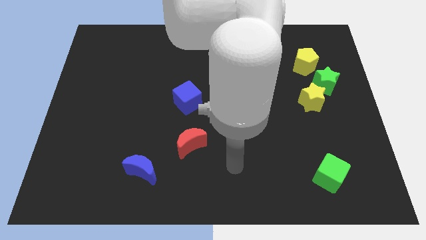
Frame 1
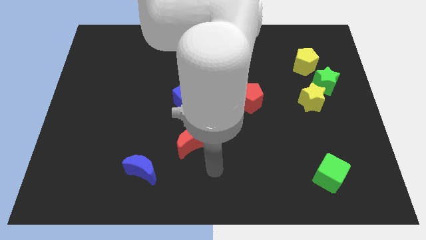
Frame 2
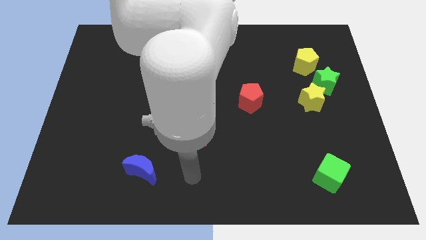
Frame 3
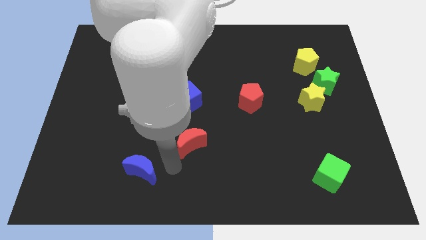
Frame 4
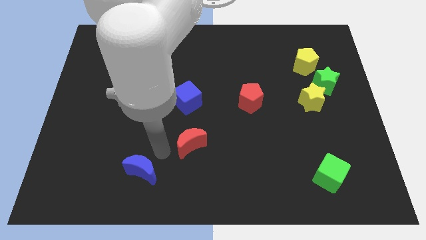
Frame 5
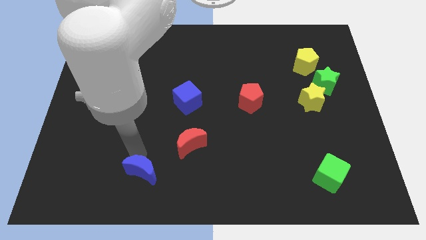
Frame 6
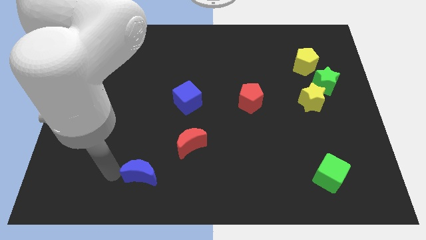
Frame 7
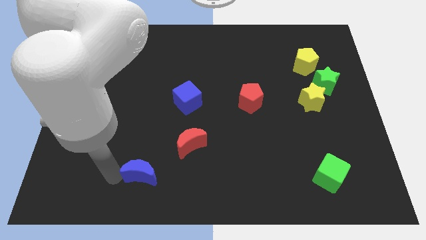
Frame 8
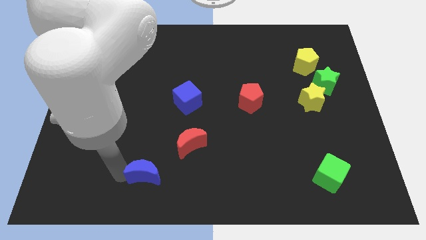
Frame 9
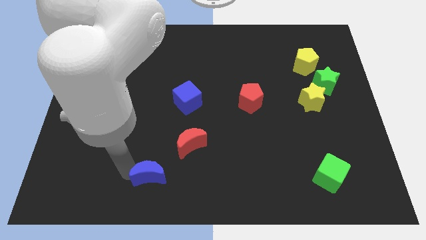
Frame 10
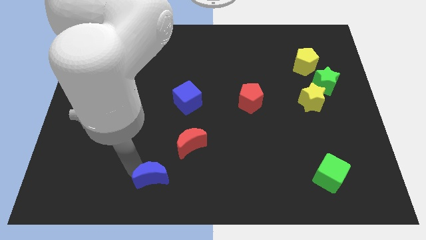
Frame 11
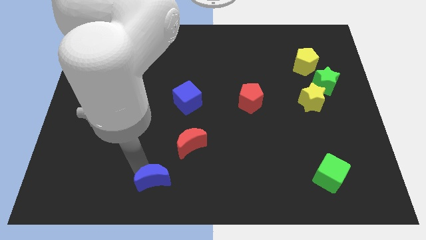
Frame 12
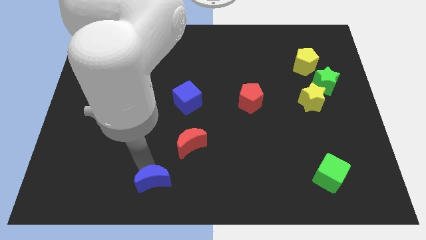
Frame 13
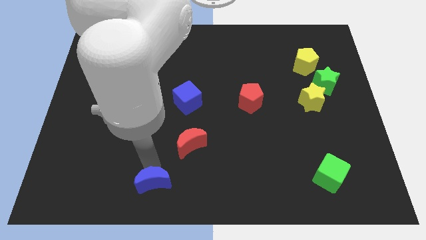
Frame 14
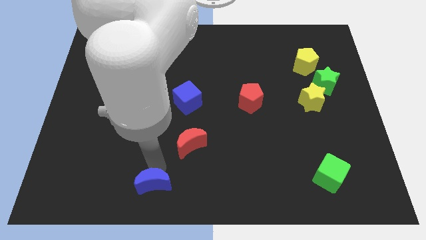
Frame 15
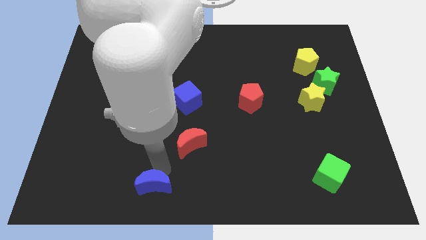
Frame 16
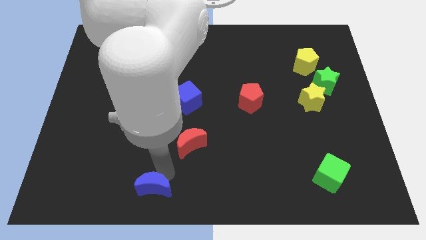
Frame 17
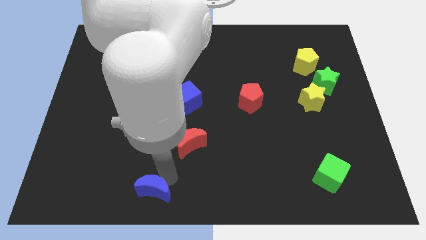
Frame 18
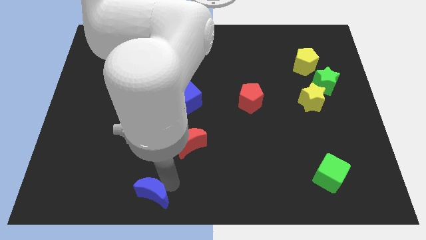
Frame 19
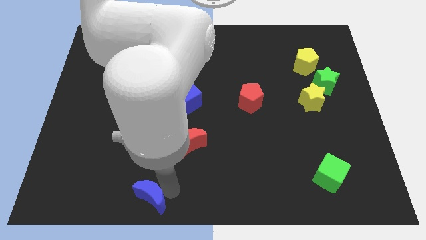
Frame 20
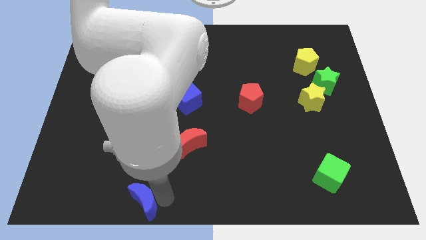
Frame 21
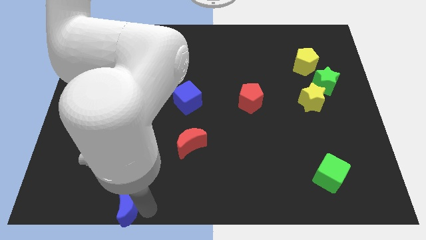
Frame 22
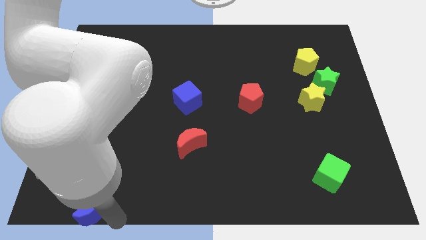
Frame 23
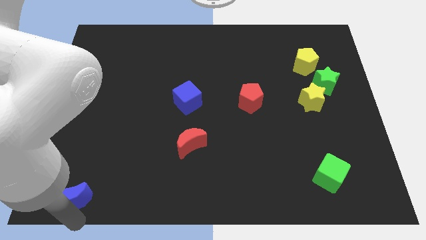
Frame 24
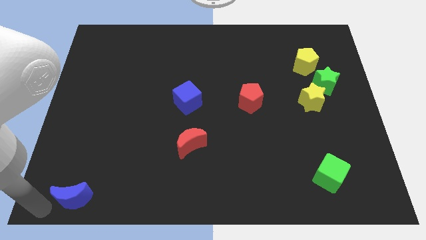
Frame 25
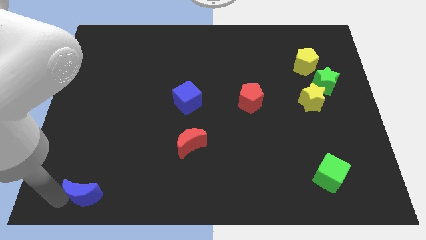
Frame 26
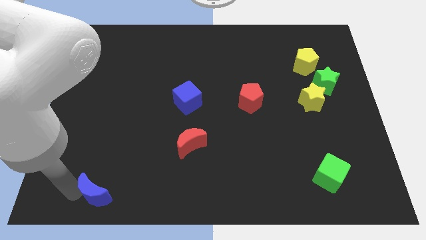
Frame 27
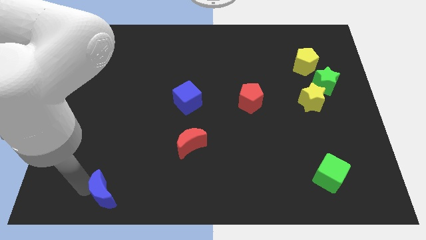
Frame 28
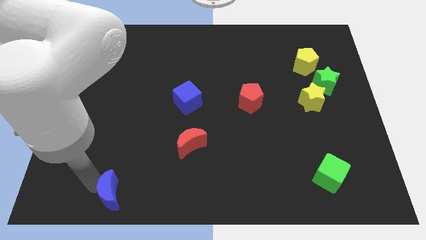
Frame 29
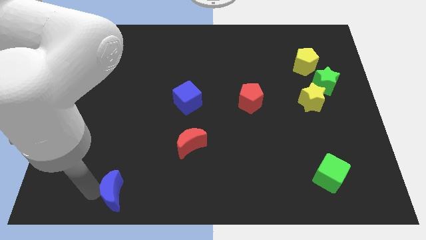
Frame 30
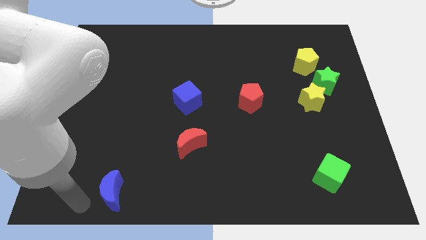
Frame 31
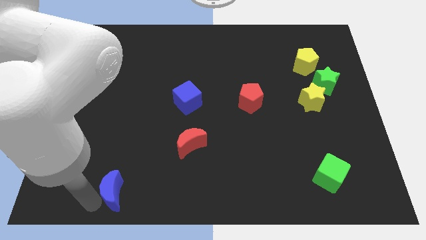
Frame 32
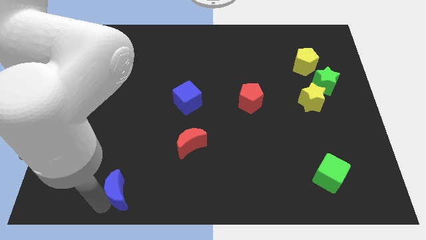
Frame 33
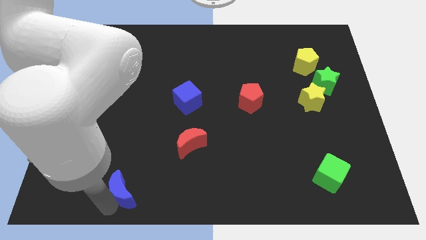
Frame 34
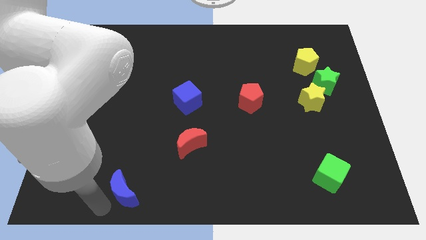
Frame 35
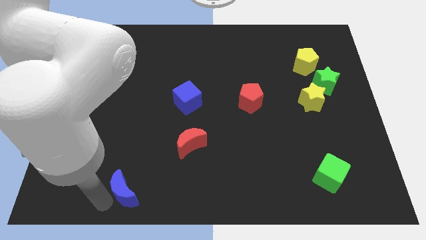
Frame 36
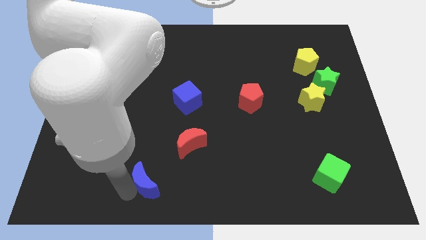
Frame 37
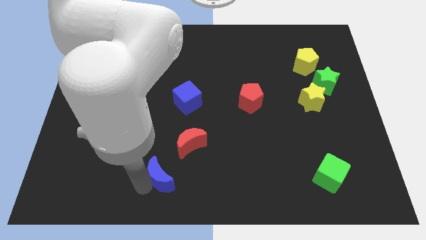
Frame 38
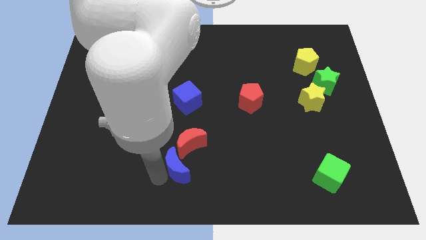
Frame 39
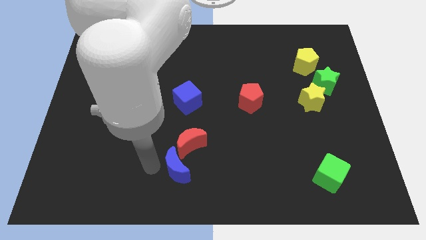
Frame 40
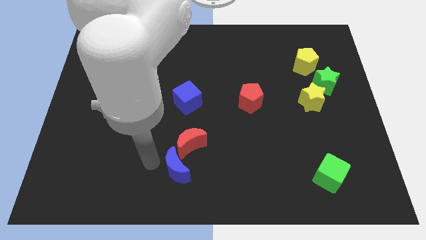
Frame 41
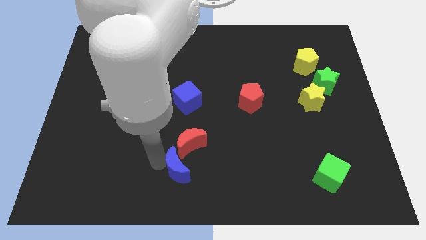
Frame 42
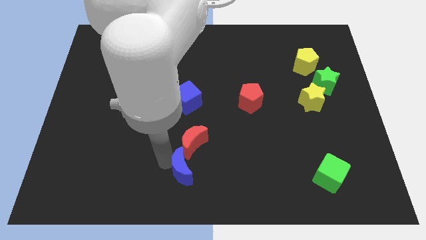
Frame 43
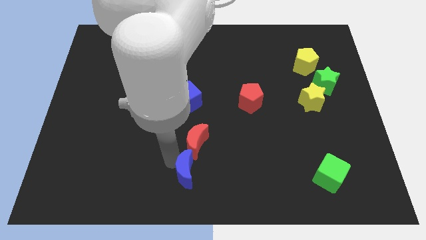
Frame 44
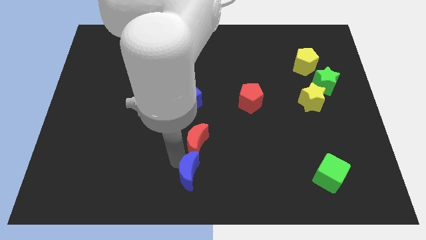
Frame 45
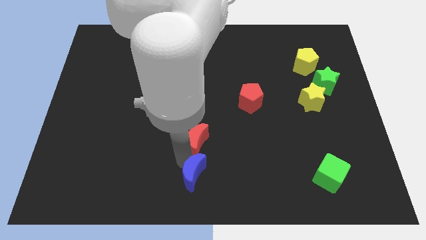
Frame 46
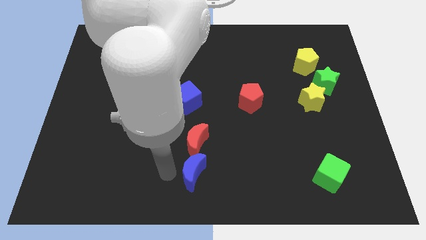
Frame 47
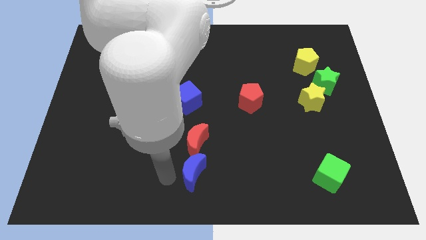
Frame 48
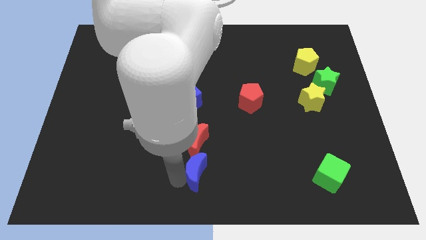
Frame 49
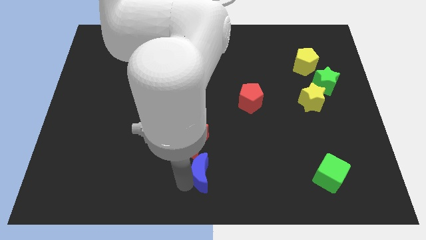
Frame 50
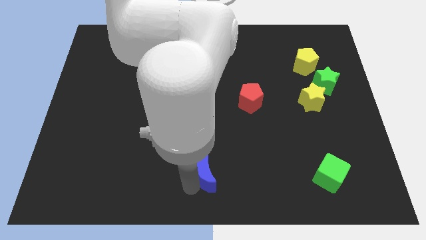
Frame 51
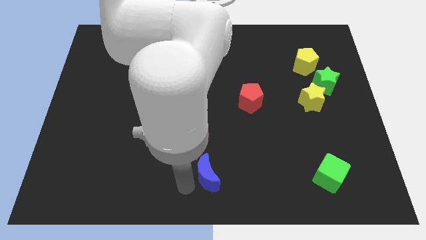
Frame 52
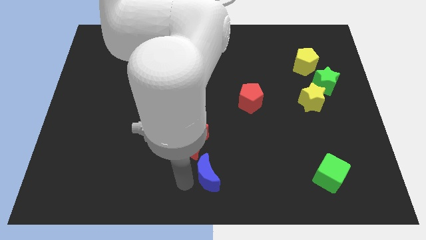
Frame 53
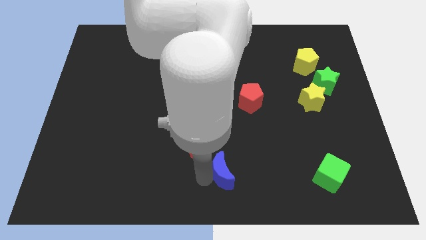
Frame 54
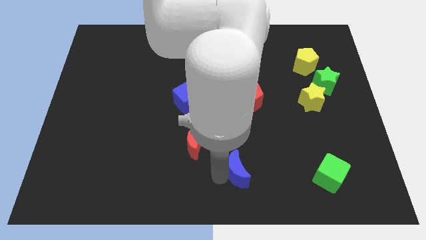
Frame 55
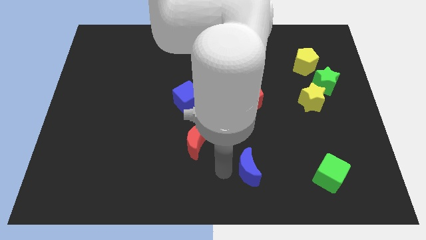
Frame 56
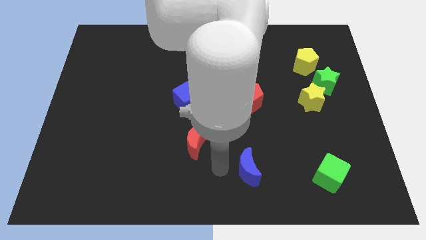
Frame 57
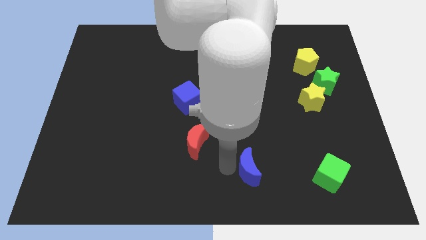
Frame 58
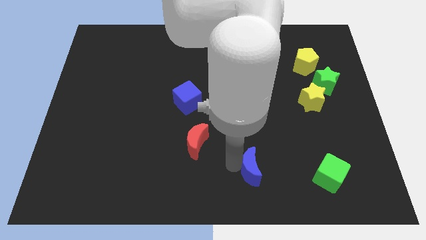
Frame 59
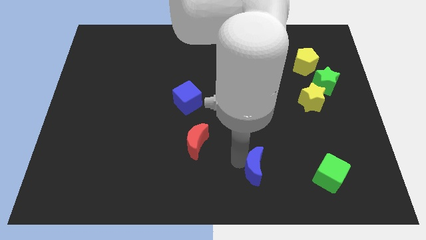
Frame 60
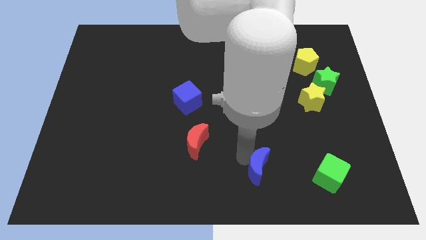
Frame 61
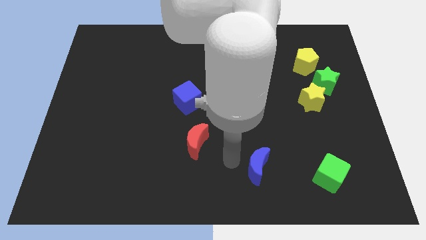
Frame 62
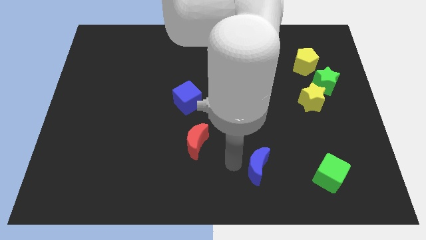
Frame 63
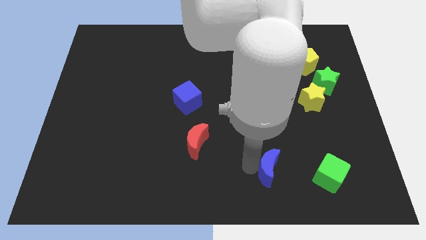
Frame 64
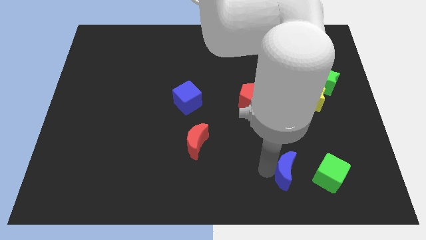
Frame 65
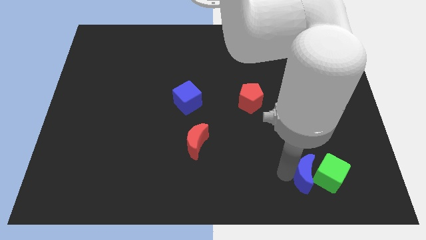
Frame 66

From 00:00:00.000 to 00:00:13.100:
slide the blue moon towards the green cube
